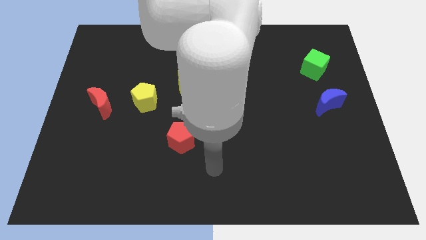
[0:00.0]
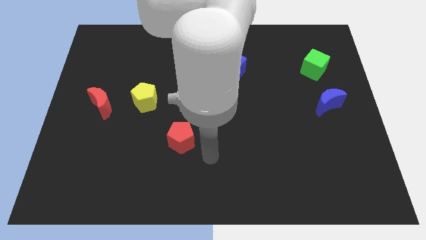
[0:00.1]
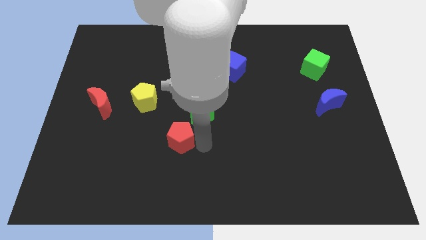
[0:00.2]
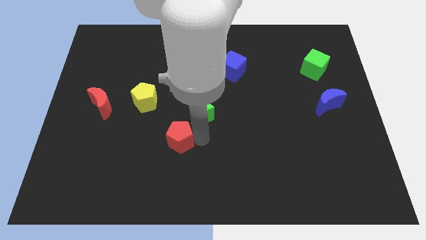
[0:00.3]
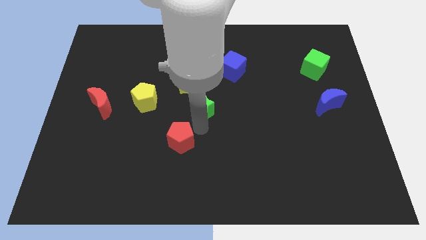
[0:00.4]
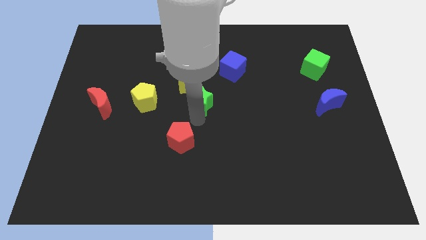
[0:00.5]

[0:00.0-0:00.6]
pull the red pentagon apart from the green star

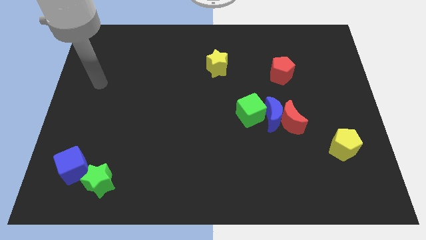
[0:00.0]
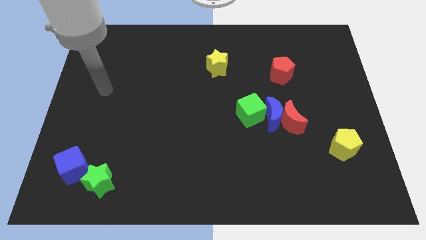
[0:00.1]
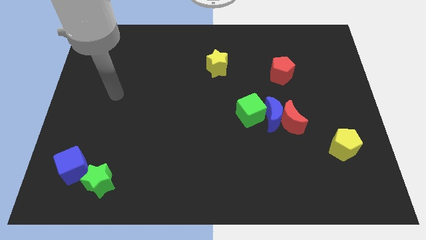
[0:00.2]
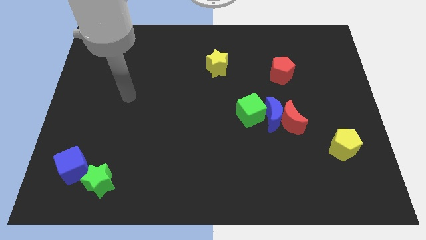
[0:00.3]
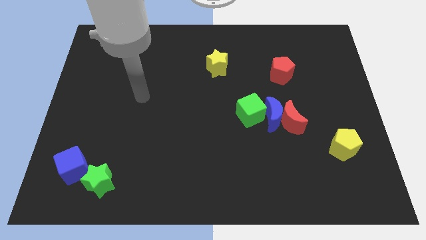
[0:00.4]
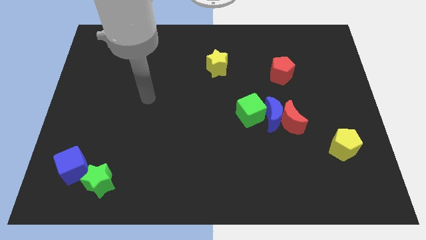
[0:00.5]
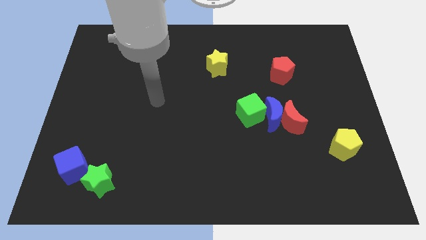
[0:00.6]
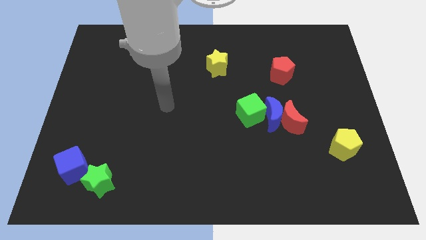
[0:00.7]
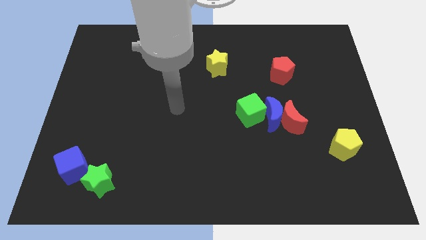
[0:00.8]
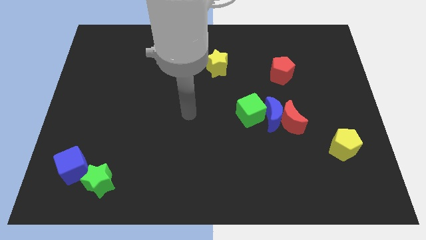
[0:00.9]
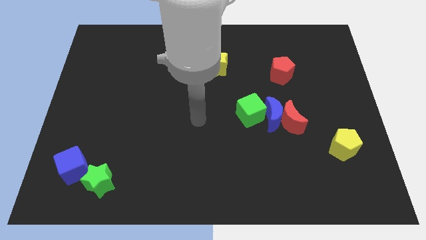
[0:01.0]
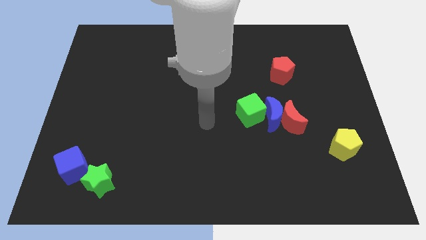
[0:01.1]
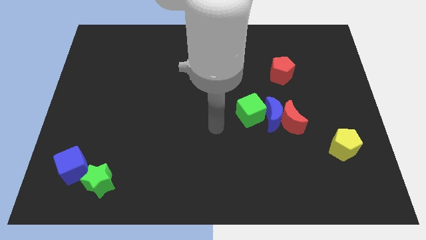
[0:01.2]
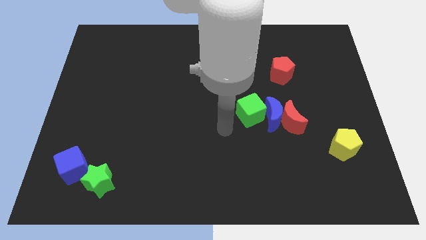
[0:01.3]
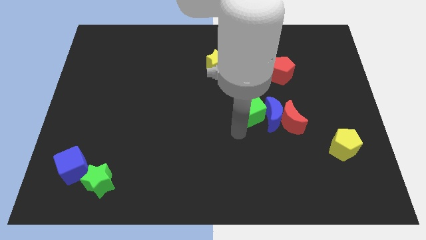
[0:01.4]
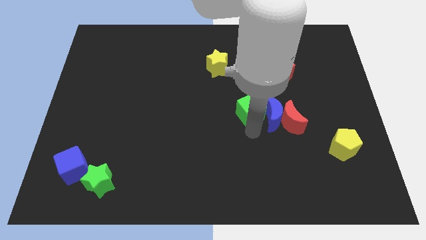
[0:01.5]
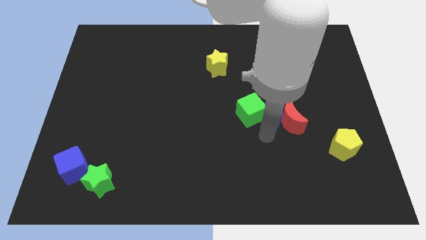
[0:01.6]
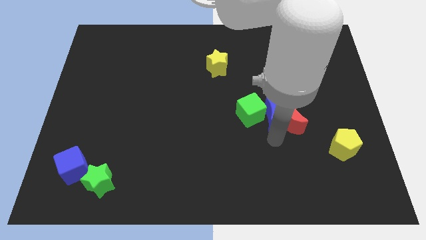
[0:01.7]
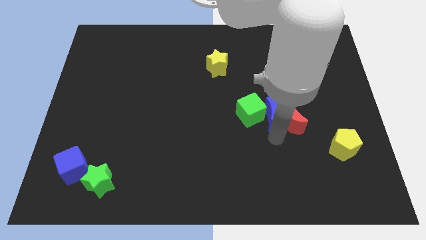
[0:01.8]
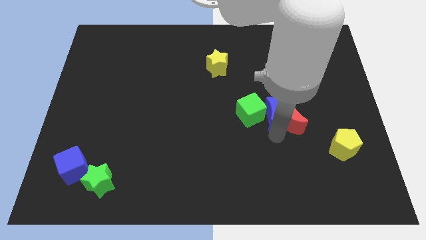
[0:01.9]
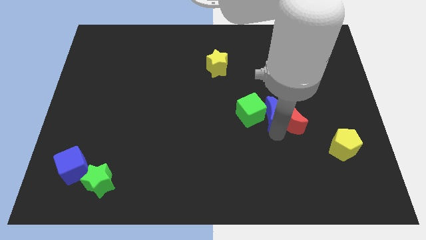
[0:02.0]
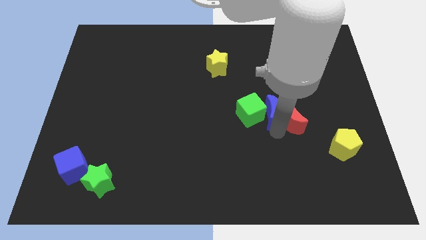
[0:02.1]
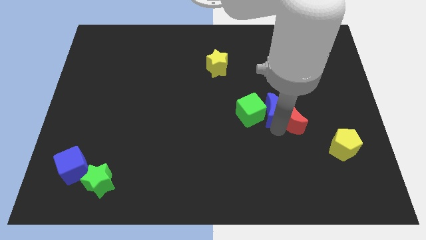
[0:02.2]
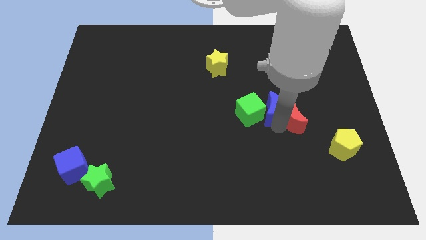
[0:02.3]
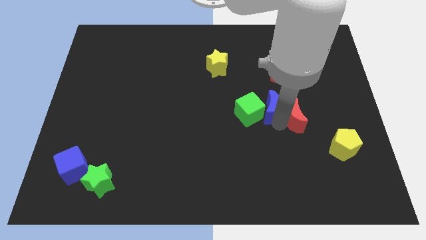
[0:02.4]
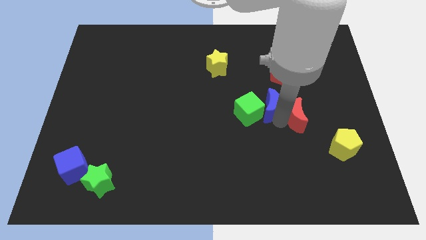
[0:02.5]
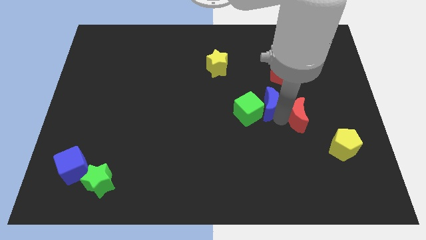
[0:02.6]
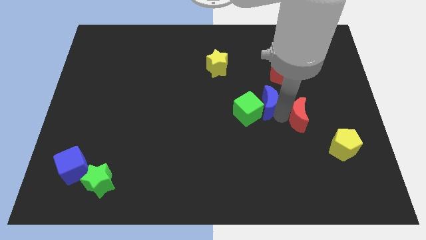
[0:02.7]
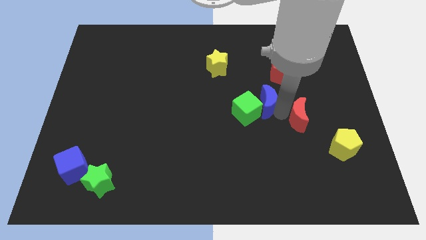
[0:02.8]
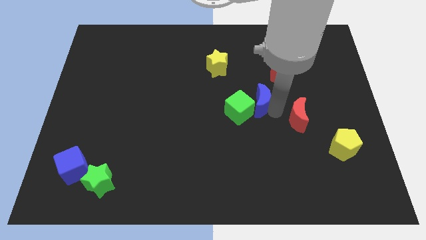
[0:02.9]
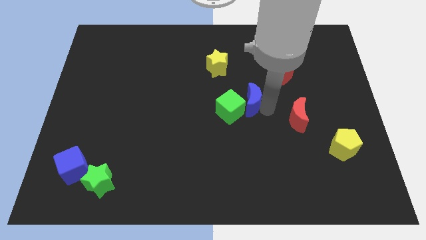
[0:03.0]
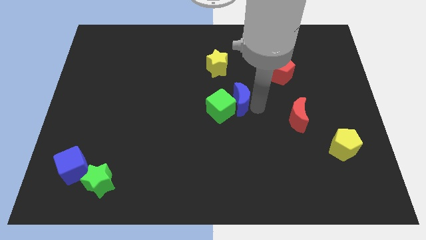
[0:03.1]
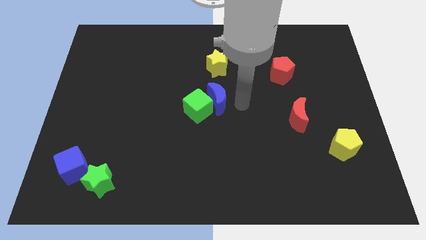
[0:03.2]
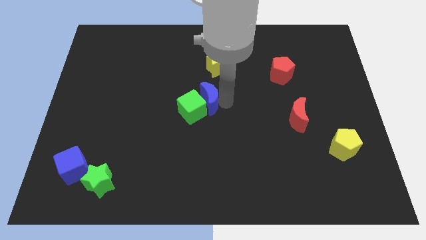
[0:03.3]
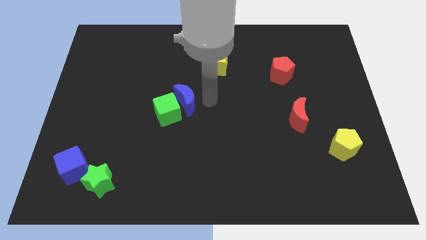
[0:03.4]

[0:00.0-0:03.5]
pull the blue moon apart from the red moon and green cube

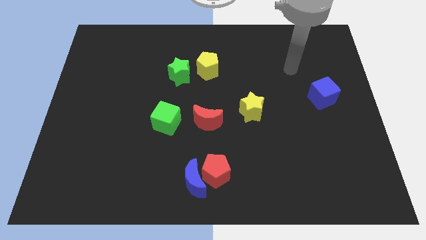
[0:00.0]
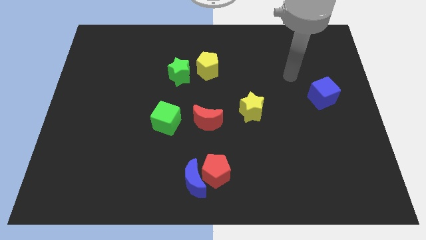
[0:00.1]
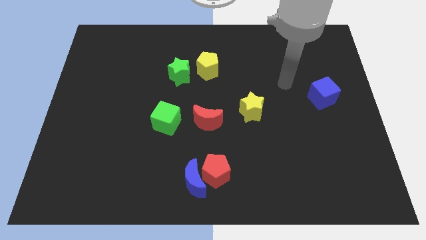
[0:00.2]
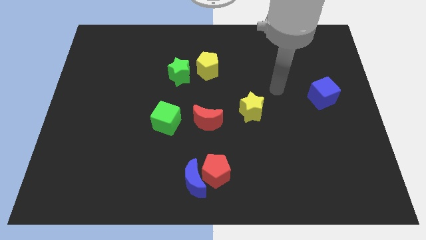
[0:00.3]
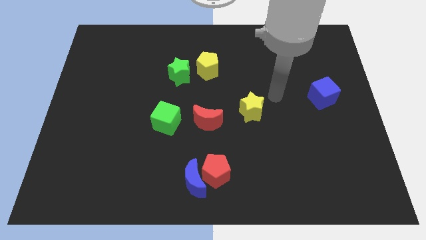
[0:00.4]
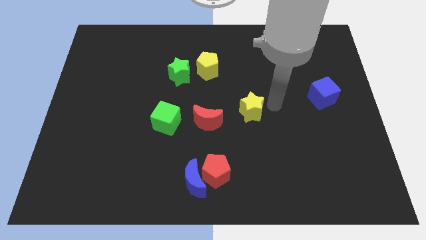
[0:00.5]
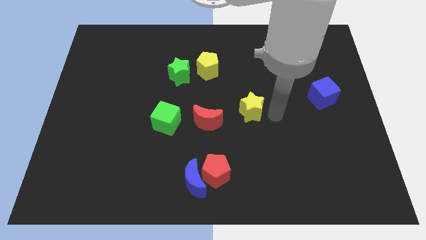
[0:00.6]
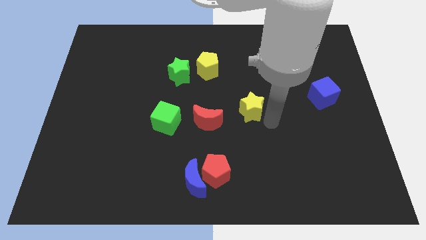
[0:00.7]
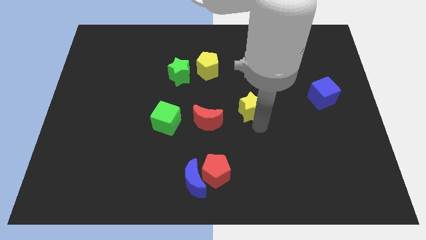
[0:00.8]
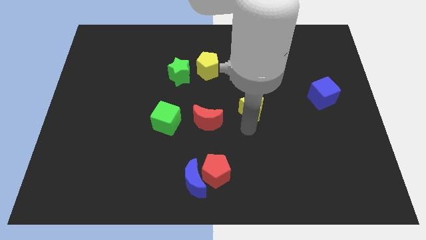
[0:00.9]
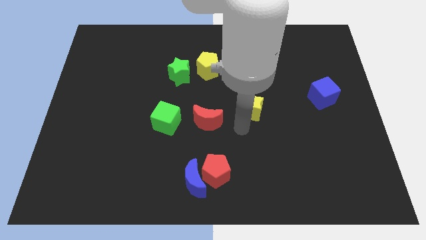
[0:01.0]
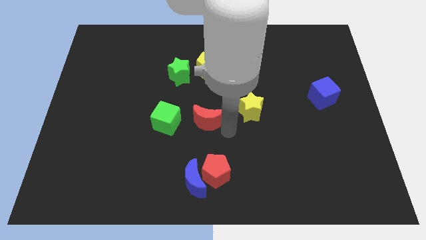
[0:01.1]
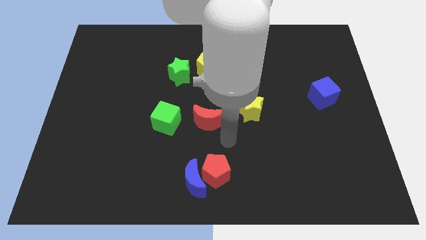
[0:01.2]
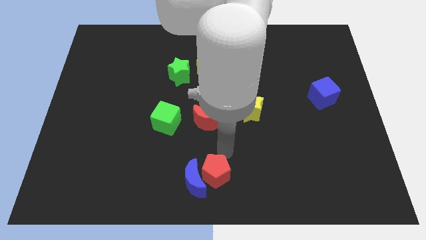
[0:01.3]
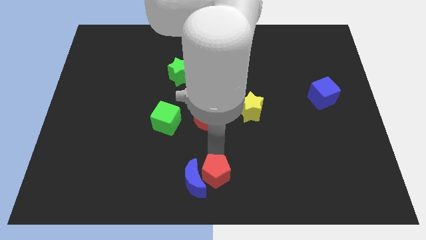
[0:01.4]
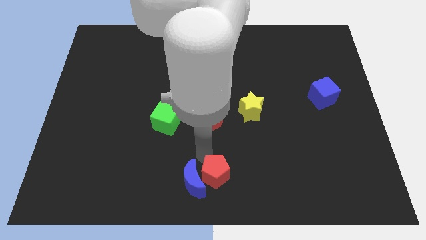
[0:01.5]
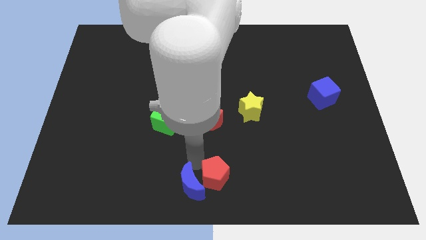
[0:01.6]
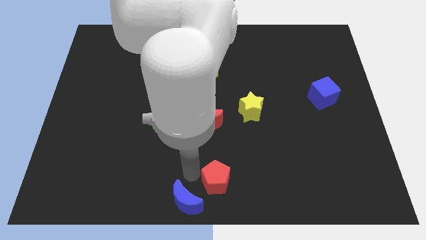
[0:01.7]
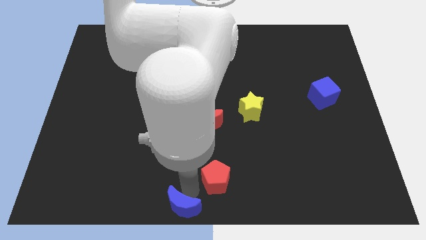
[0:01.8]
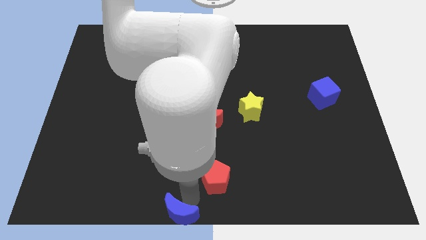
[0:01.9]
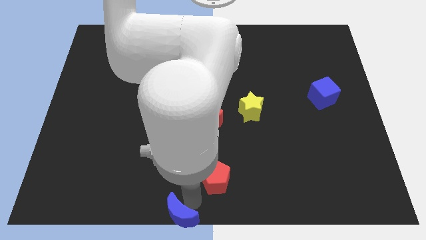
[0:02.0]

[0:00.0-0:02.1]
separate the red pentagon from the blue moon

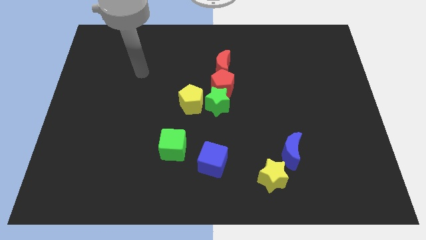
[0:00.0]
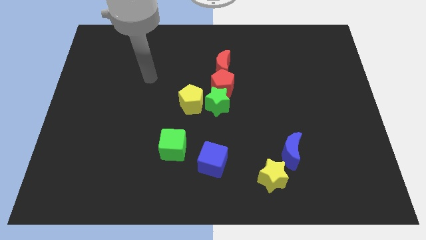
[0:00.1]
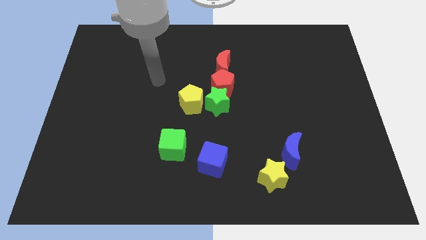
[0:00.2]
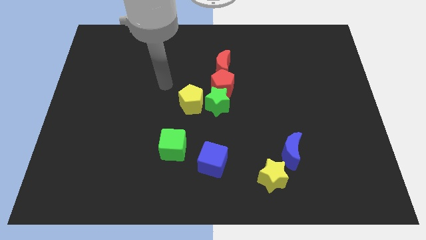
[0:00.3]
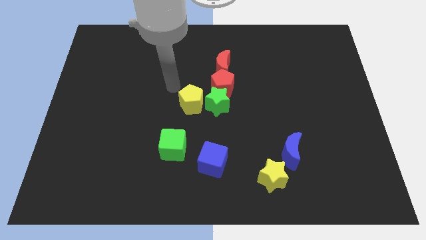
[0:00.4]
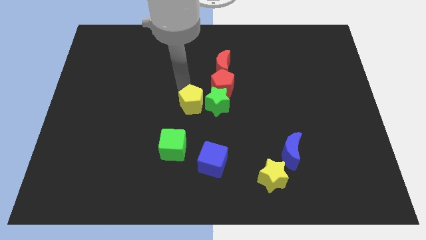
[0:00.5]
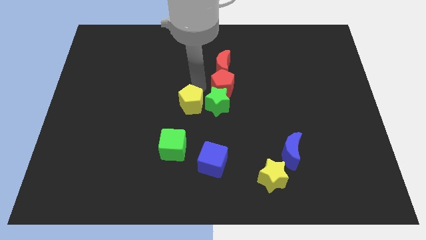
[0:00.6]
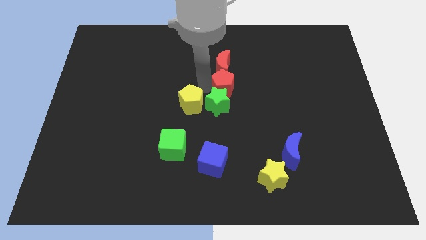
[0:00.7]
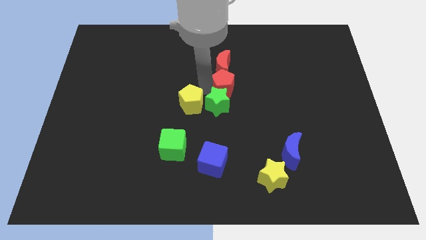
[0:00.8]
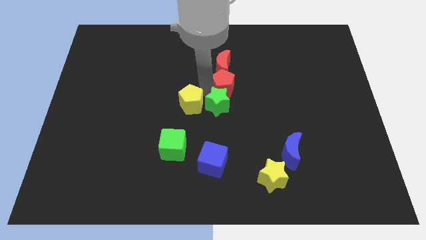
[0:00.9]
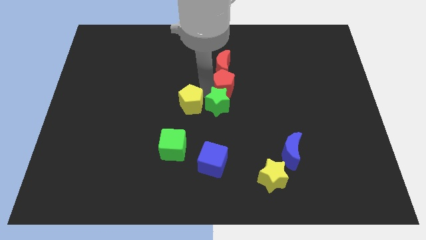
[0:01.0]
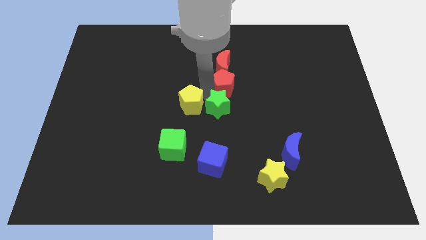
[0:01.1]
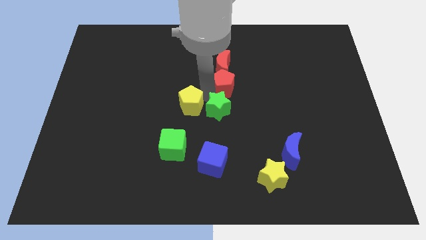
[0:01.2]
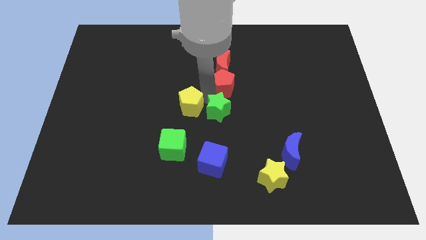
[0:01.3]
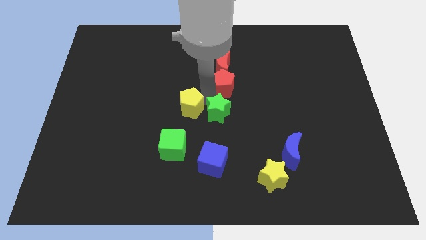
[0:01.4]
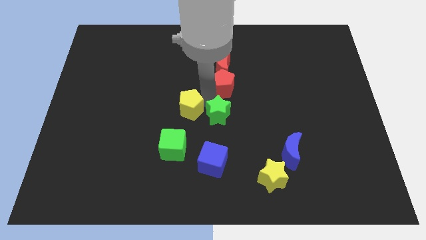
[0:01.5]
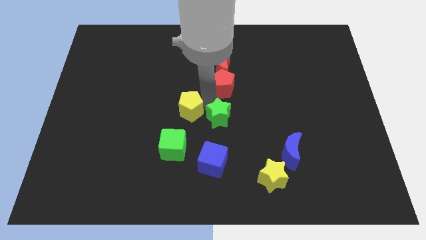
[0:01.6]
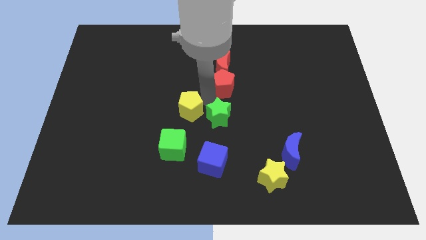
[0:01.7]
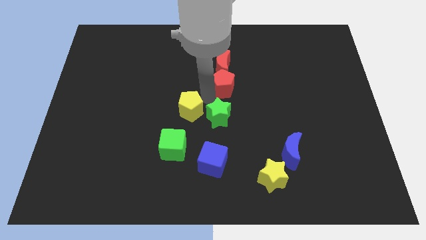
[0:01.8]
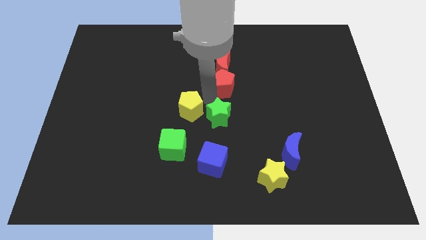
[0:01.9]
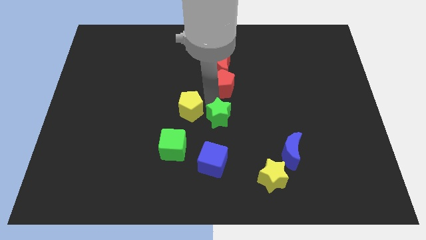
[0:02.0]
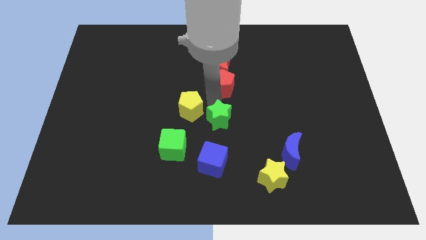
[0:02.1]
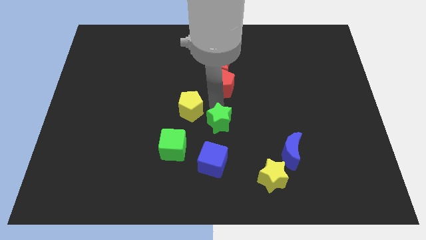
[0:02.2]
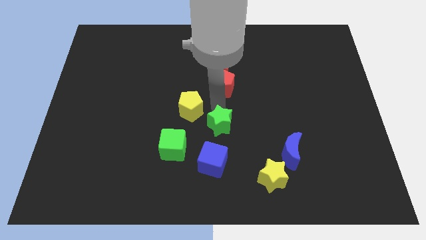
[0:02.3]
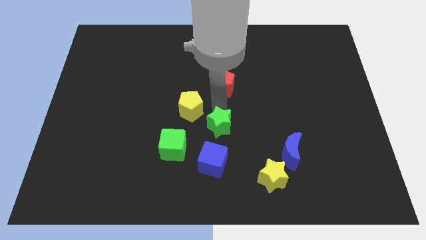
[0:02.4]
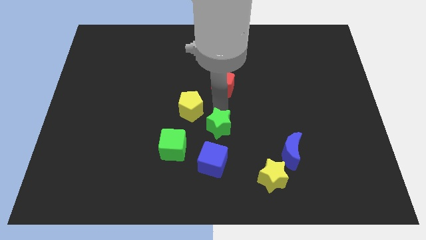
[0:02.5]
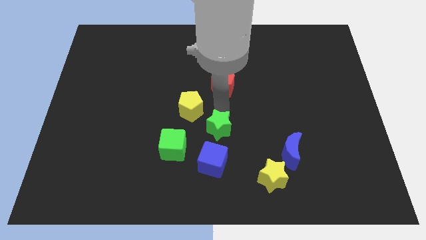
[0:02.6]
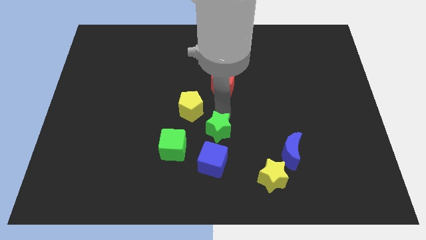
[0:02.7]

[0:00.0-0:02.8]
separate the green star from the red pentagon and yellow pentagon

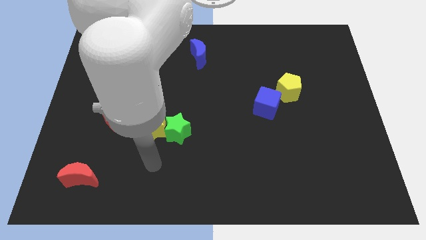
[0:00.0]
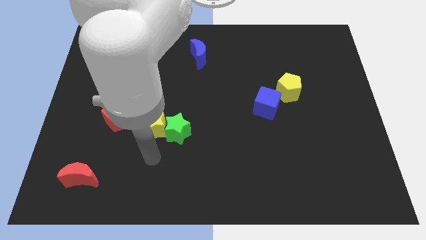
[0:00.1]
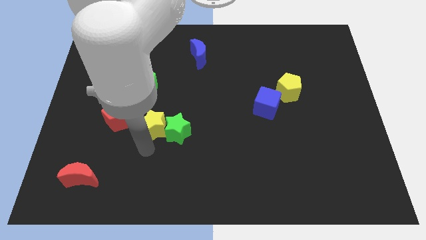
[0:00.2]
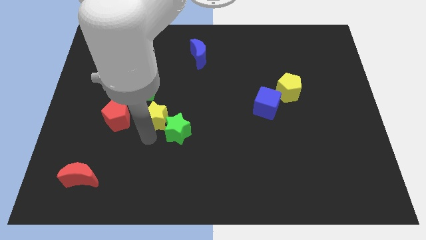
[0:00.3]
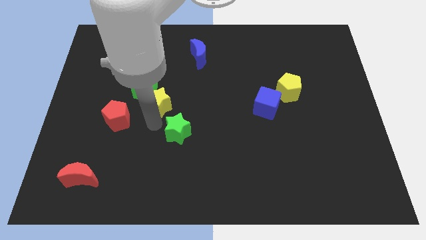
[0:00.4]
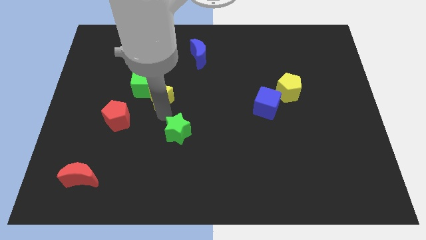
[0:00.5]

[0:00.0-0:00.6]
pull the green star apart from the yellow star
